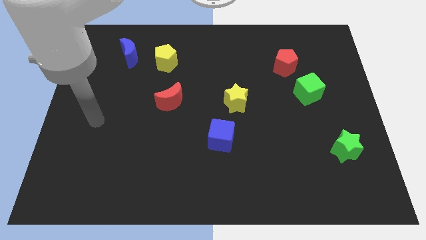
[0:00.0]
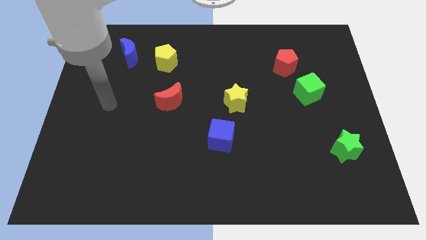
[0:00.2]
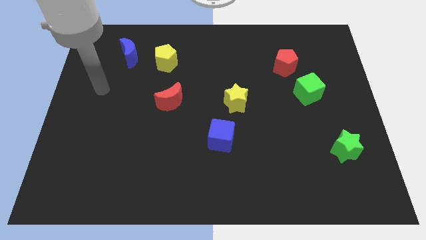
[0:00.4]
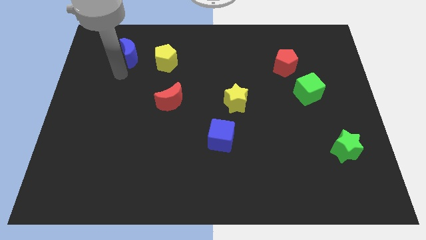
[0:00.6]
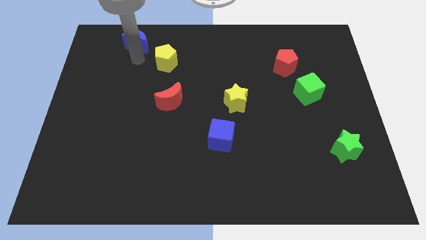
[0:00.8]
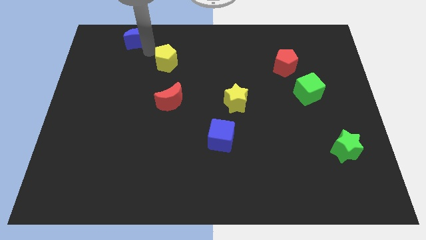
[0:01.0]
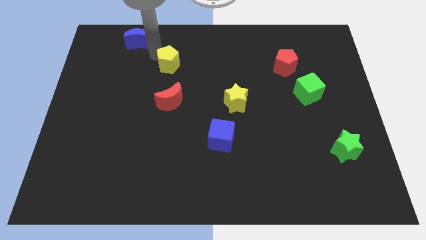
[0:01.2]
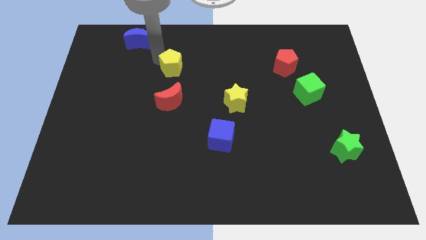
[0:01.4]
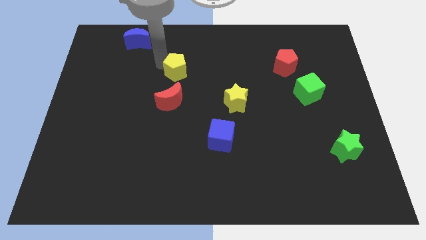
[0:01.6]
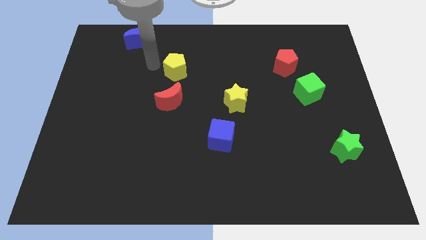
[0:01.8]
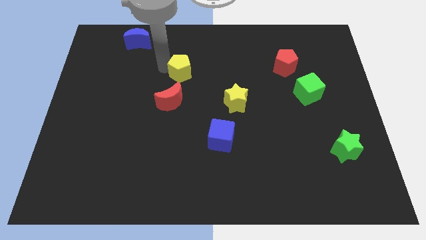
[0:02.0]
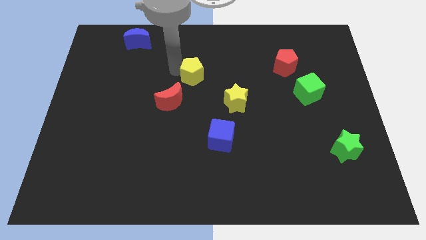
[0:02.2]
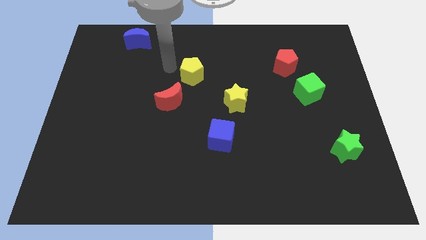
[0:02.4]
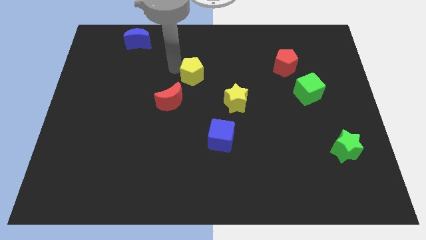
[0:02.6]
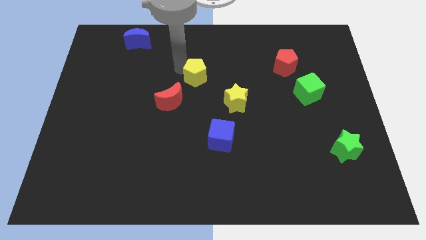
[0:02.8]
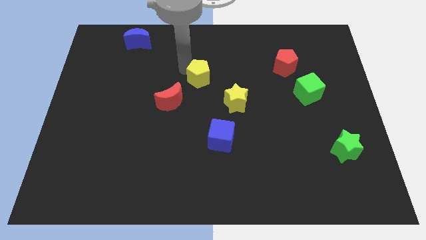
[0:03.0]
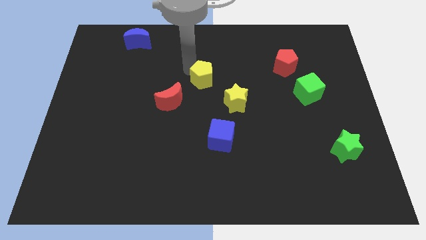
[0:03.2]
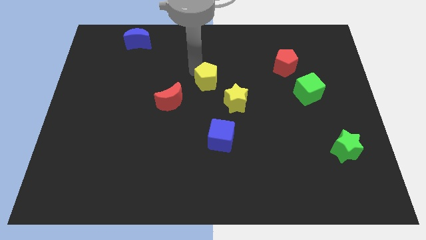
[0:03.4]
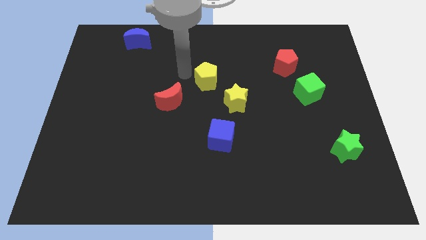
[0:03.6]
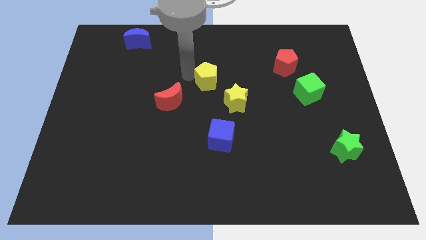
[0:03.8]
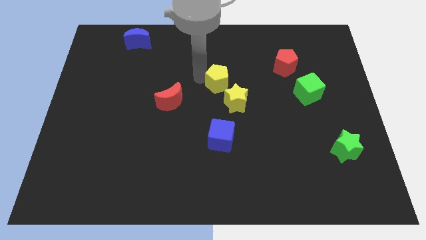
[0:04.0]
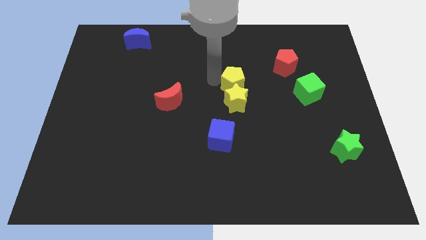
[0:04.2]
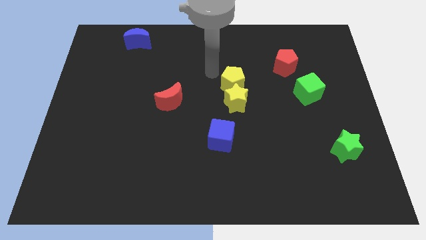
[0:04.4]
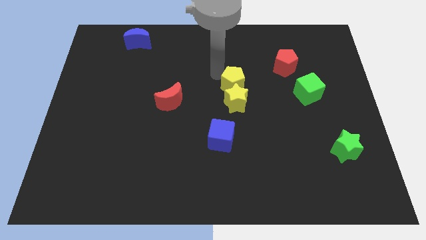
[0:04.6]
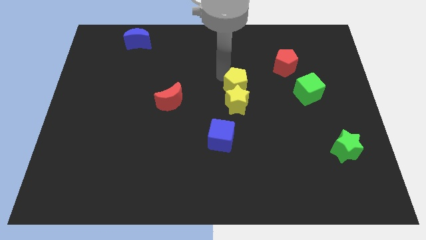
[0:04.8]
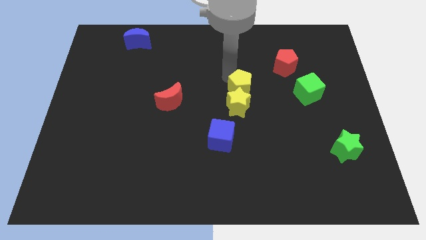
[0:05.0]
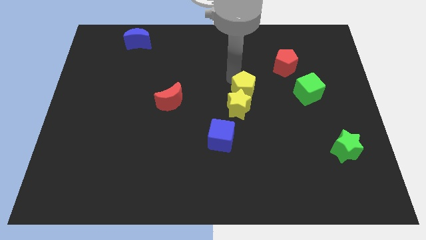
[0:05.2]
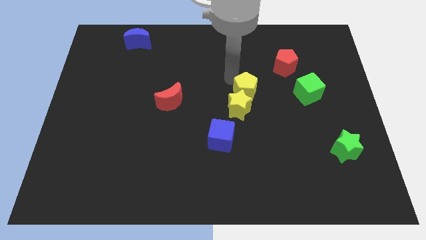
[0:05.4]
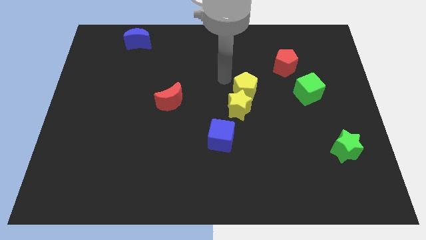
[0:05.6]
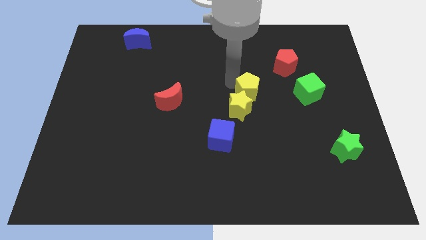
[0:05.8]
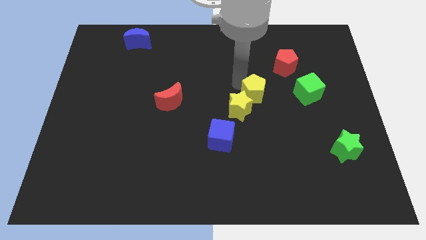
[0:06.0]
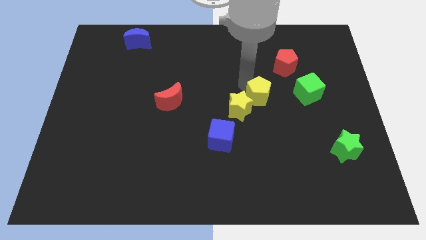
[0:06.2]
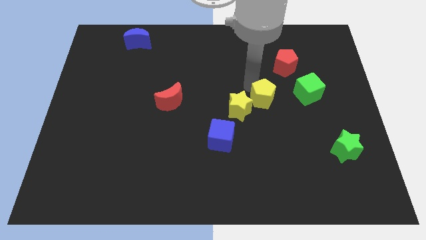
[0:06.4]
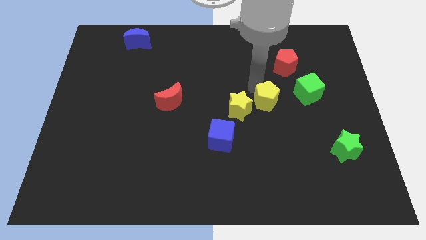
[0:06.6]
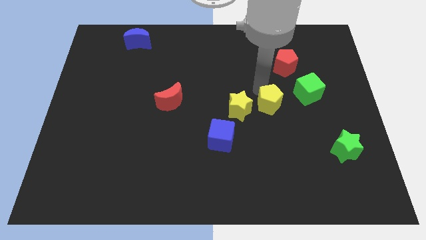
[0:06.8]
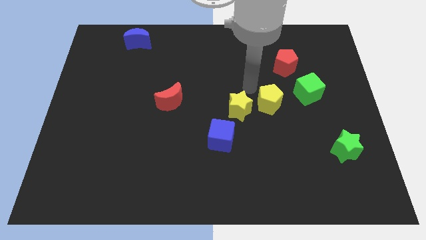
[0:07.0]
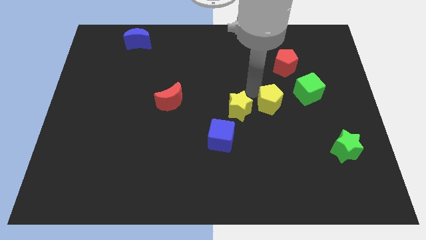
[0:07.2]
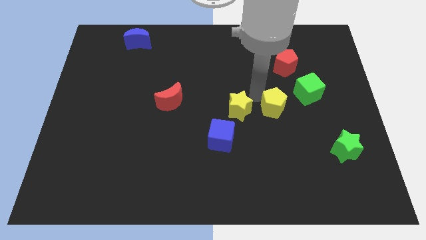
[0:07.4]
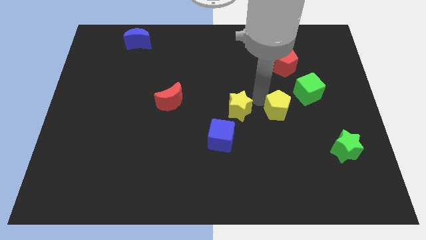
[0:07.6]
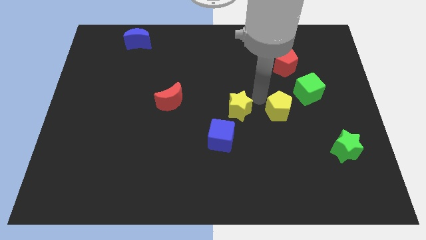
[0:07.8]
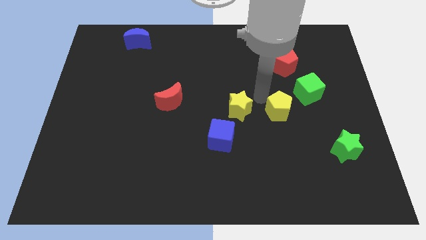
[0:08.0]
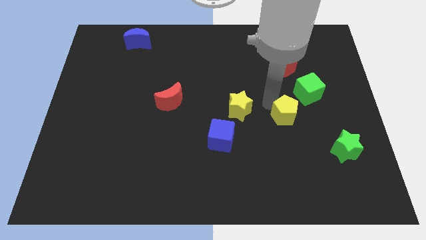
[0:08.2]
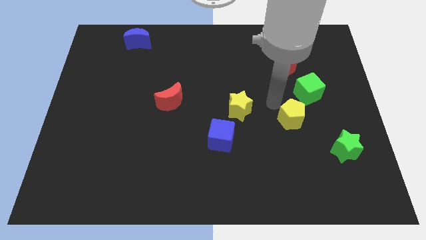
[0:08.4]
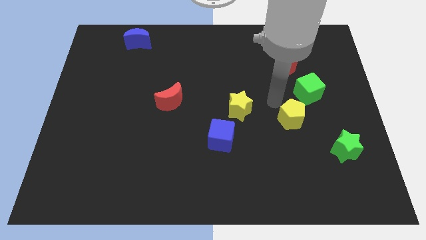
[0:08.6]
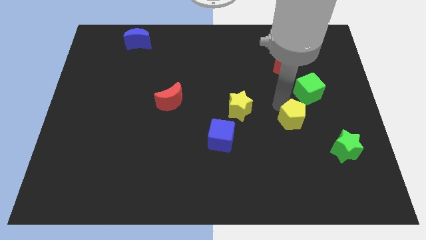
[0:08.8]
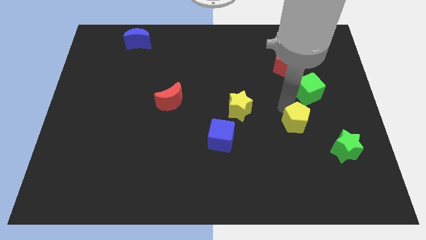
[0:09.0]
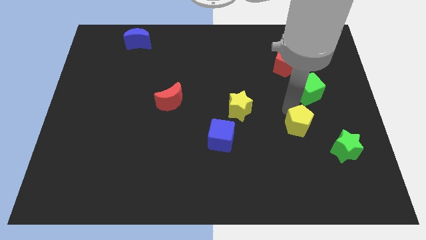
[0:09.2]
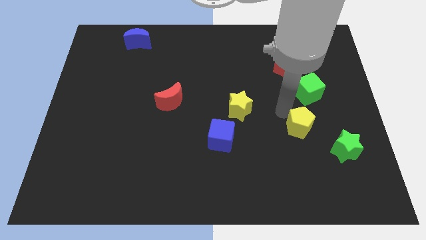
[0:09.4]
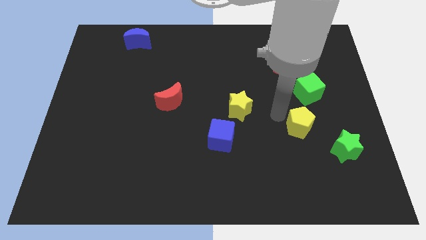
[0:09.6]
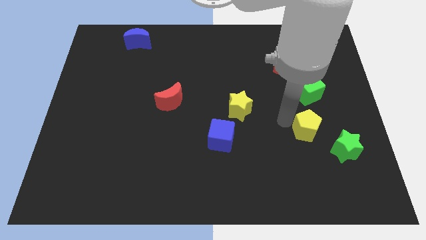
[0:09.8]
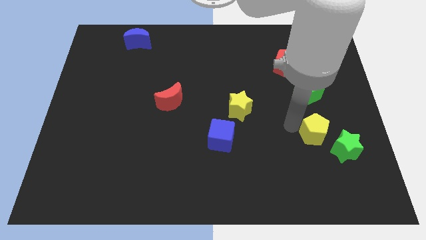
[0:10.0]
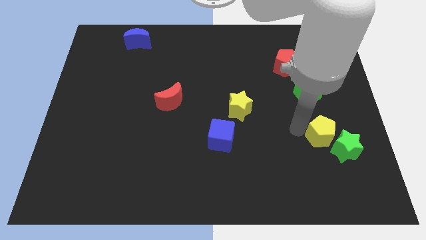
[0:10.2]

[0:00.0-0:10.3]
slide the yellow pentagon towards the green star

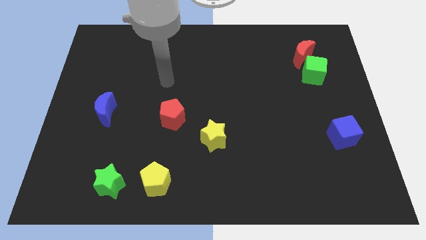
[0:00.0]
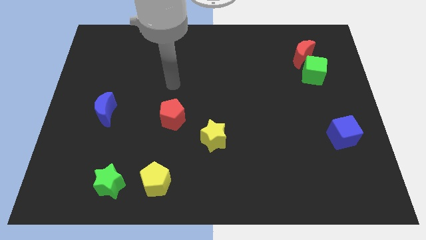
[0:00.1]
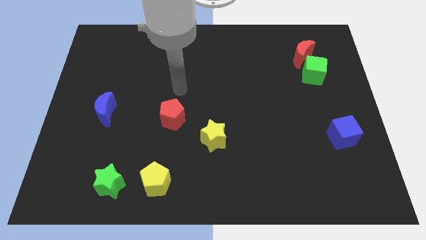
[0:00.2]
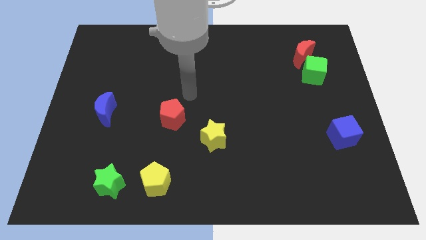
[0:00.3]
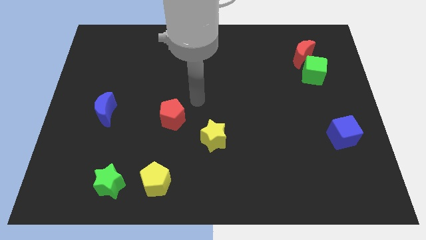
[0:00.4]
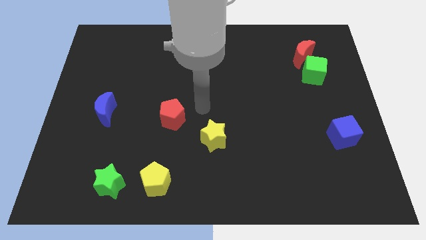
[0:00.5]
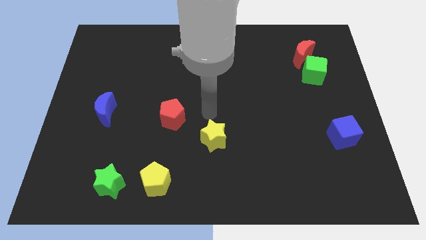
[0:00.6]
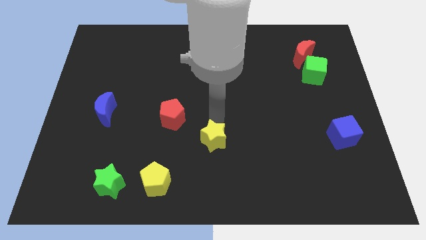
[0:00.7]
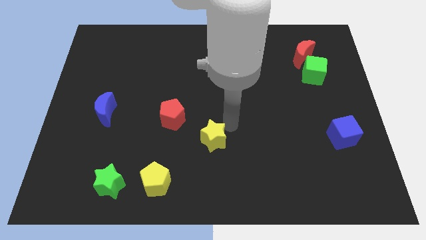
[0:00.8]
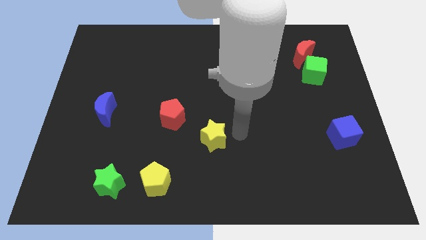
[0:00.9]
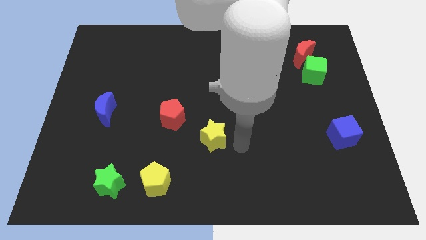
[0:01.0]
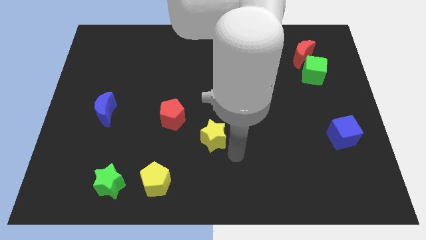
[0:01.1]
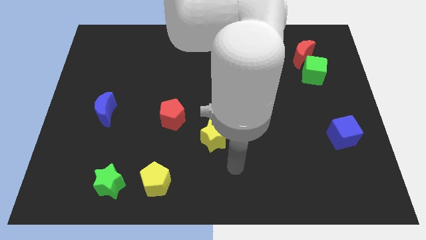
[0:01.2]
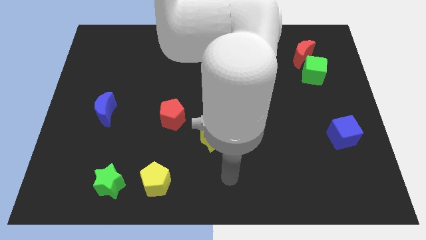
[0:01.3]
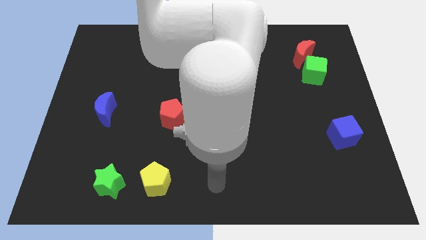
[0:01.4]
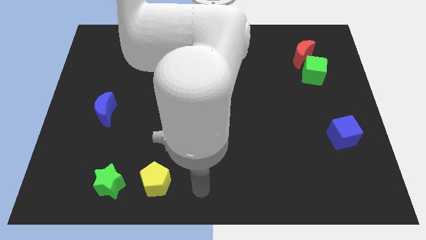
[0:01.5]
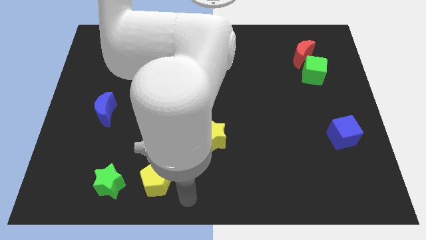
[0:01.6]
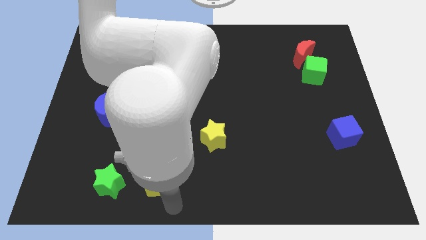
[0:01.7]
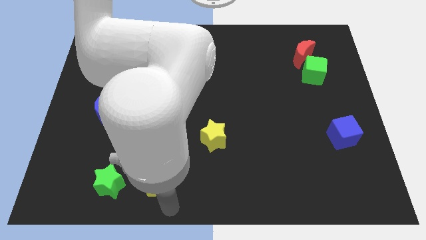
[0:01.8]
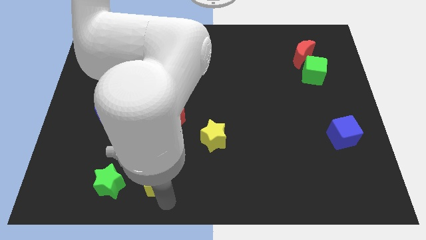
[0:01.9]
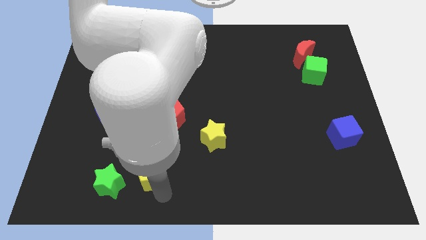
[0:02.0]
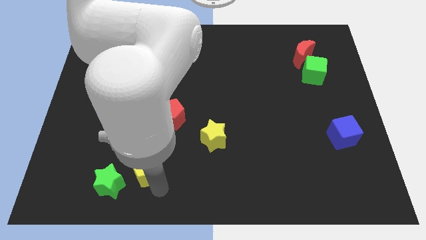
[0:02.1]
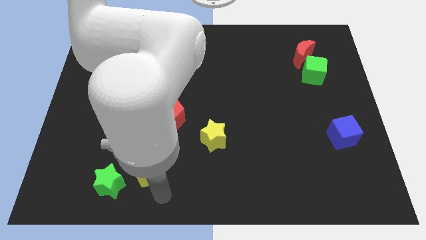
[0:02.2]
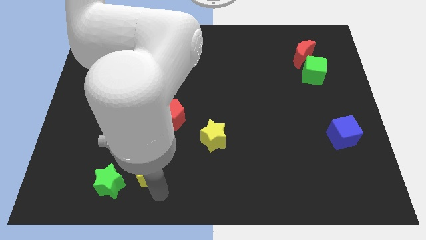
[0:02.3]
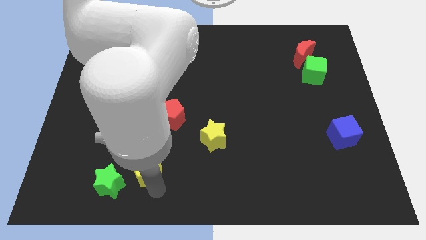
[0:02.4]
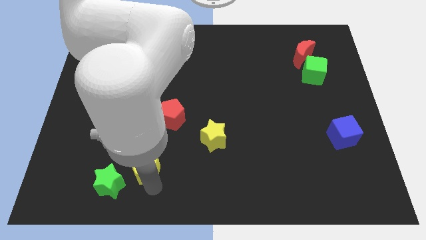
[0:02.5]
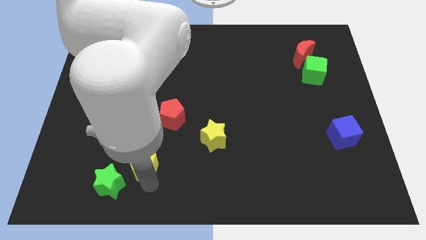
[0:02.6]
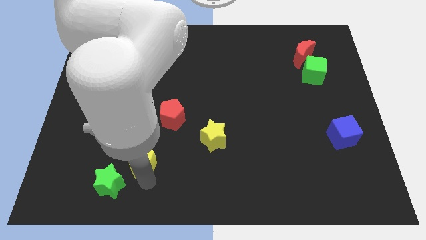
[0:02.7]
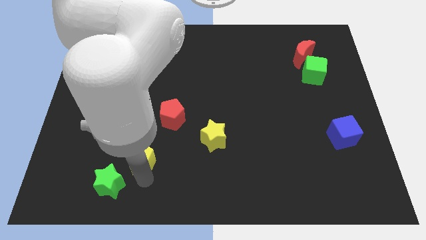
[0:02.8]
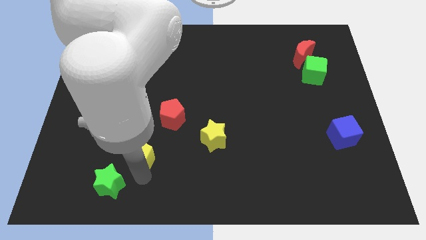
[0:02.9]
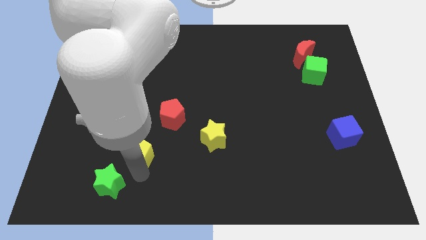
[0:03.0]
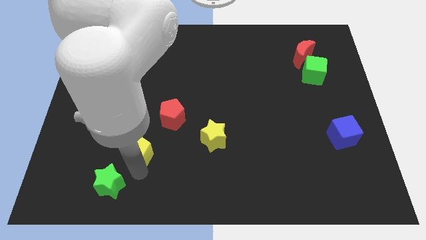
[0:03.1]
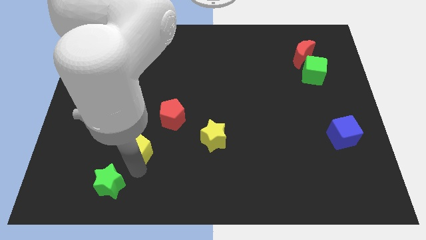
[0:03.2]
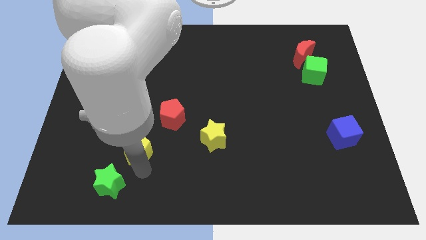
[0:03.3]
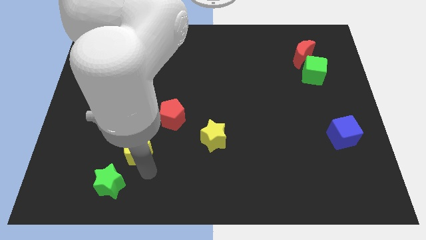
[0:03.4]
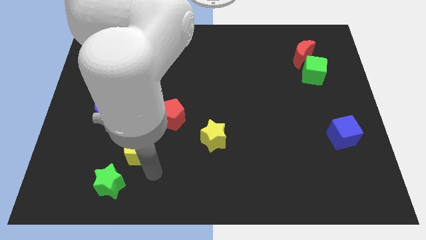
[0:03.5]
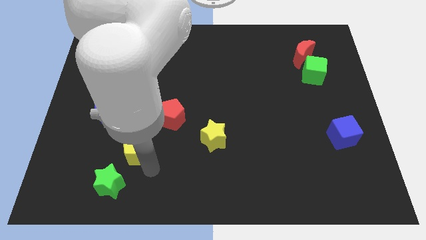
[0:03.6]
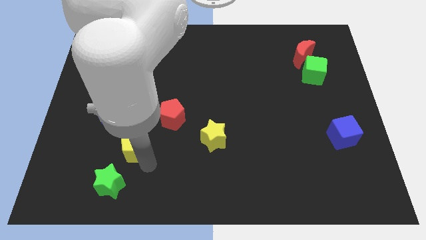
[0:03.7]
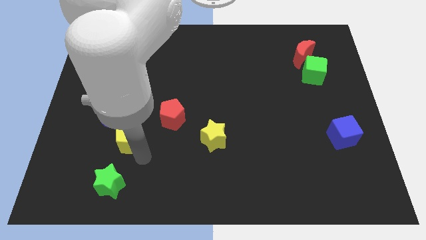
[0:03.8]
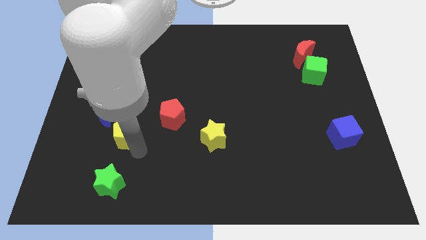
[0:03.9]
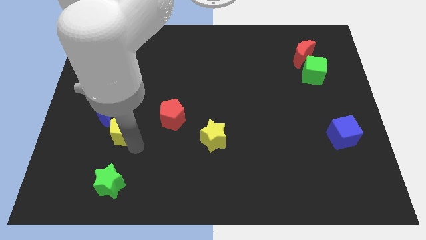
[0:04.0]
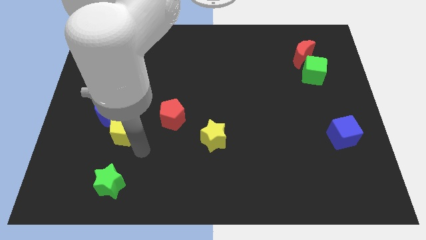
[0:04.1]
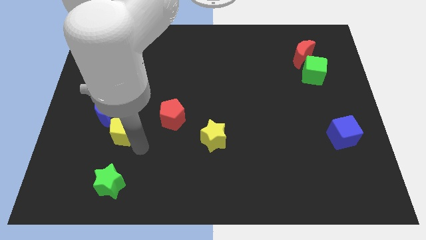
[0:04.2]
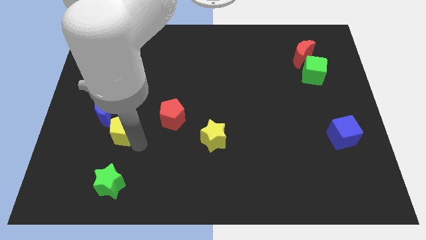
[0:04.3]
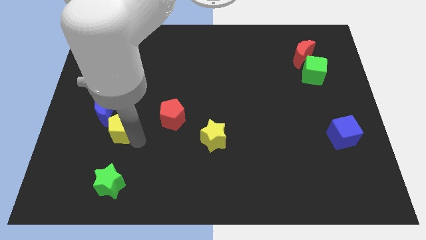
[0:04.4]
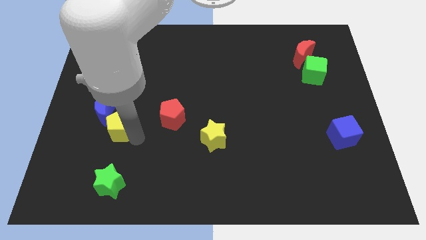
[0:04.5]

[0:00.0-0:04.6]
put the yellow pentagon to the blue moon
